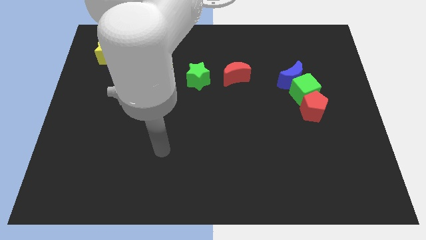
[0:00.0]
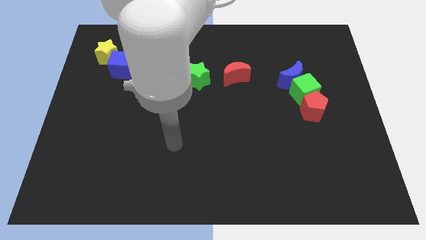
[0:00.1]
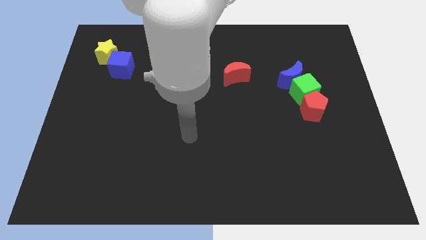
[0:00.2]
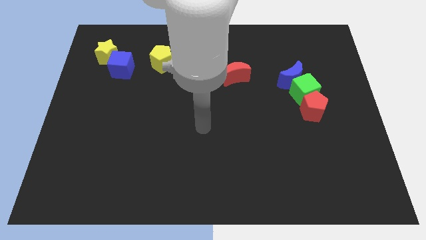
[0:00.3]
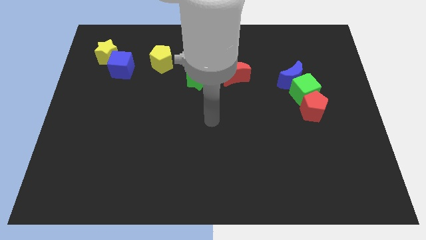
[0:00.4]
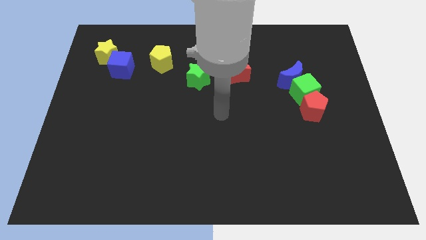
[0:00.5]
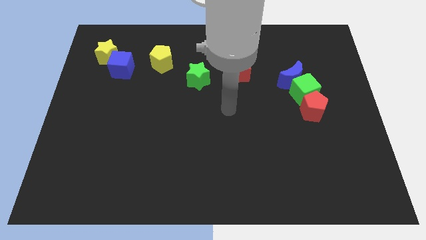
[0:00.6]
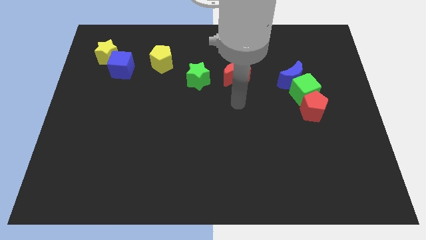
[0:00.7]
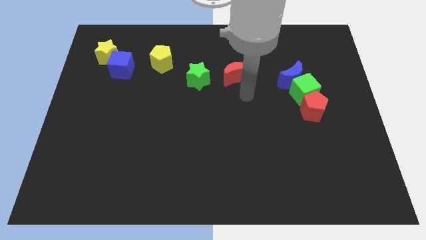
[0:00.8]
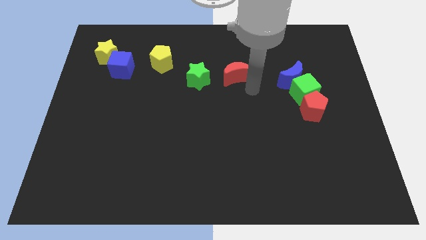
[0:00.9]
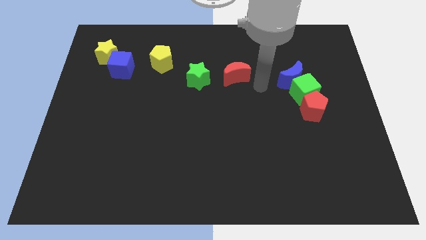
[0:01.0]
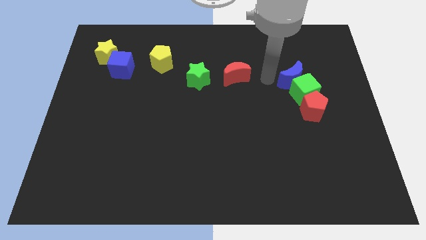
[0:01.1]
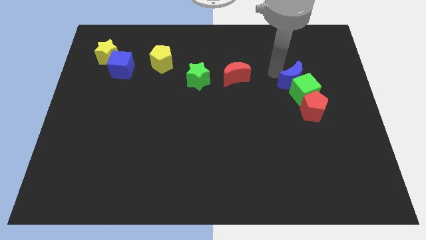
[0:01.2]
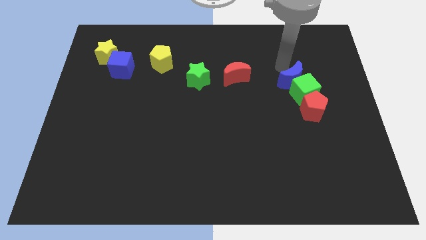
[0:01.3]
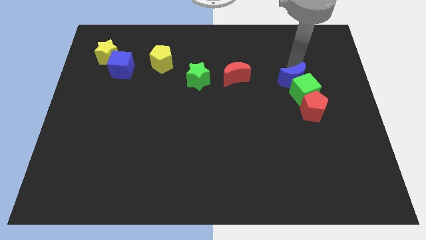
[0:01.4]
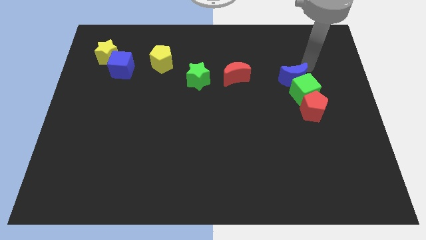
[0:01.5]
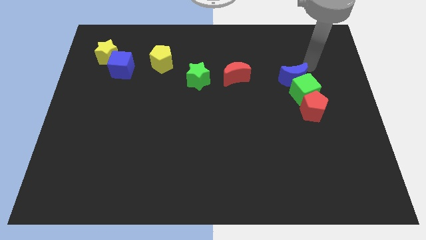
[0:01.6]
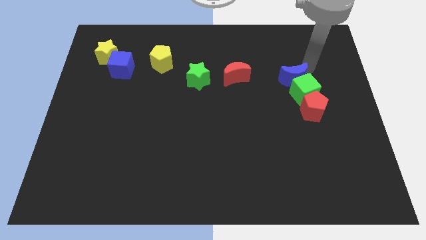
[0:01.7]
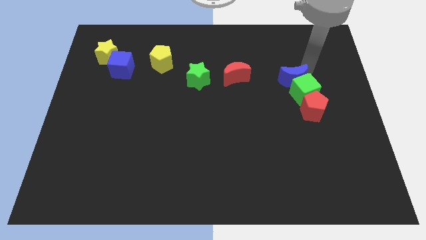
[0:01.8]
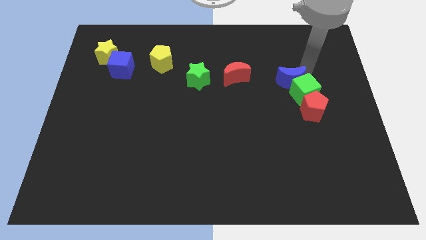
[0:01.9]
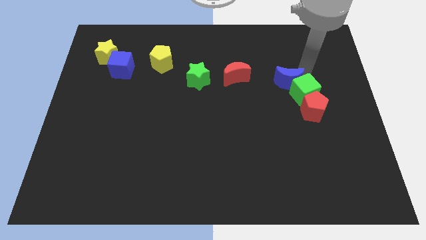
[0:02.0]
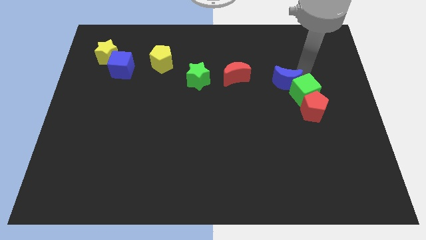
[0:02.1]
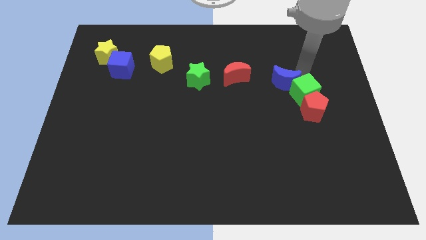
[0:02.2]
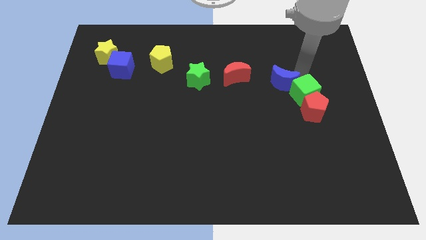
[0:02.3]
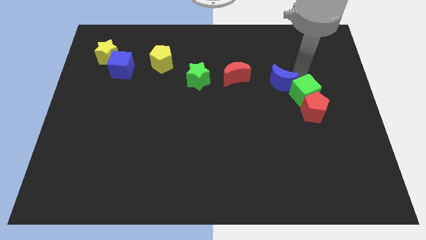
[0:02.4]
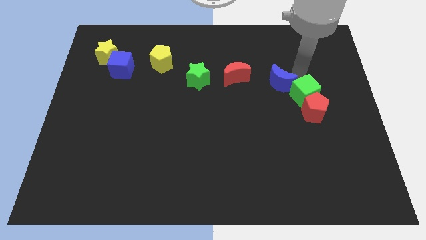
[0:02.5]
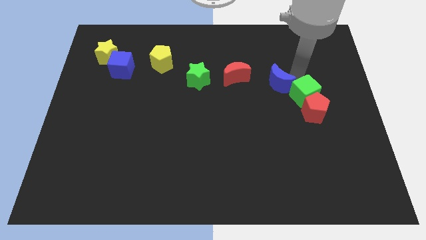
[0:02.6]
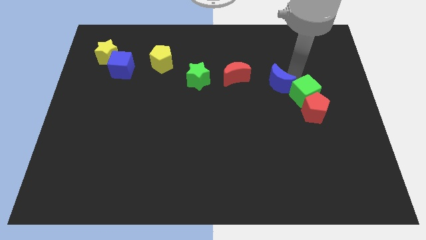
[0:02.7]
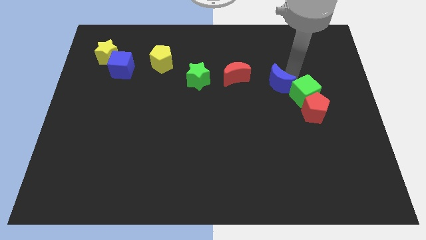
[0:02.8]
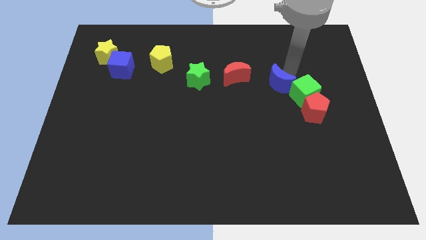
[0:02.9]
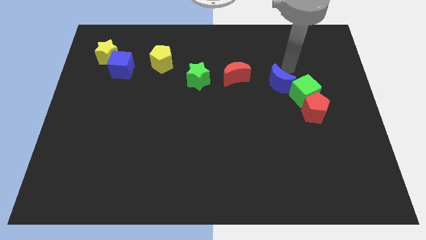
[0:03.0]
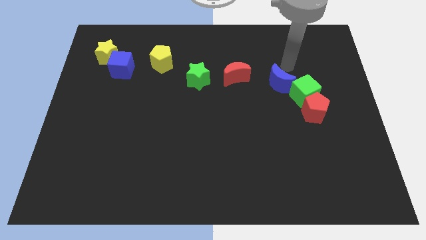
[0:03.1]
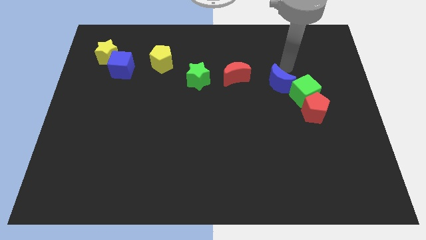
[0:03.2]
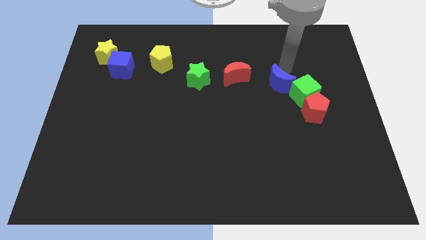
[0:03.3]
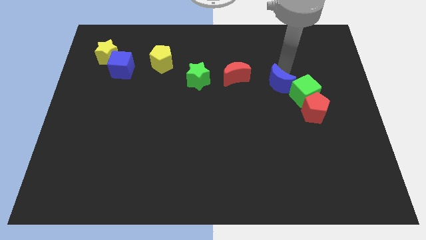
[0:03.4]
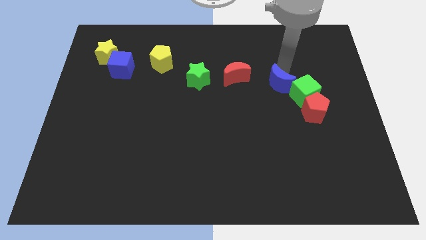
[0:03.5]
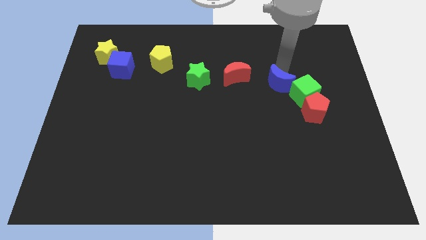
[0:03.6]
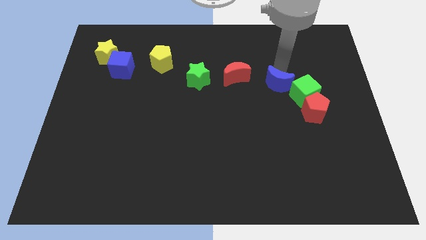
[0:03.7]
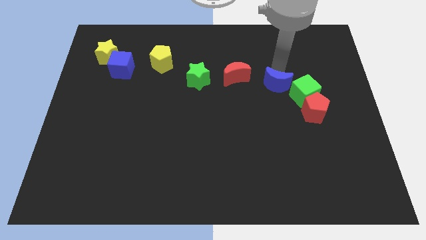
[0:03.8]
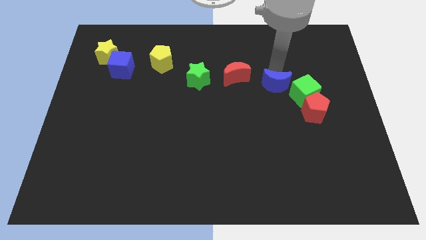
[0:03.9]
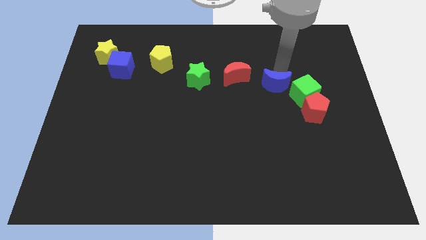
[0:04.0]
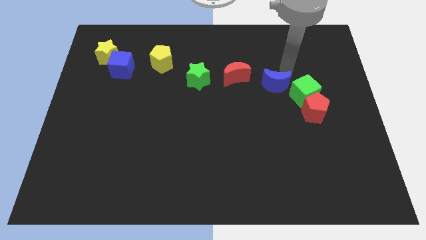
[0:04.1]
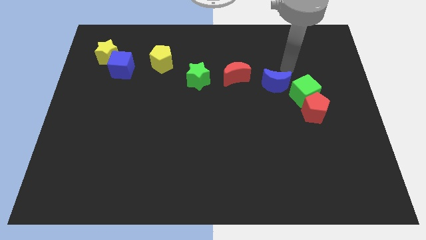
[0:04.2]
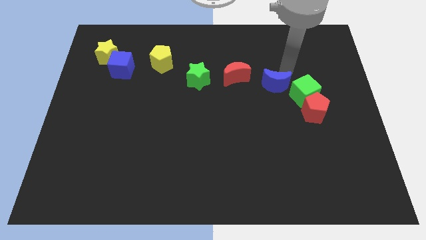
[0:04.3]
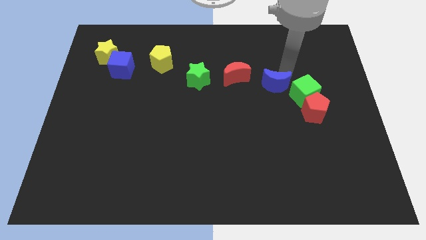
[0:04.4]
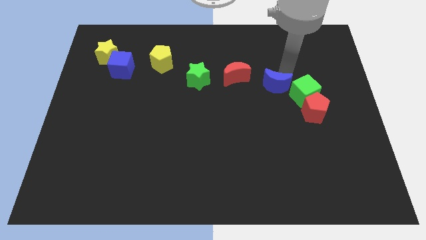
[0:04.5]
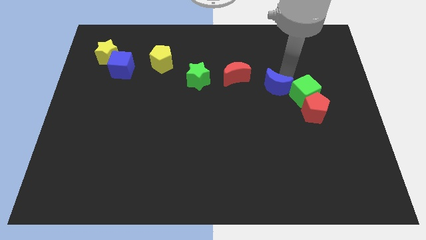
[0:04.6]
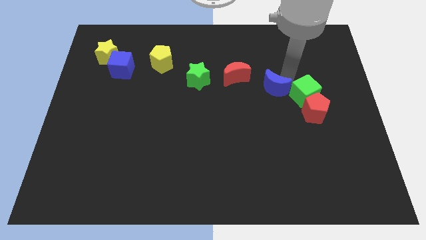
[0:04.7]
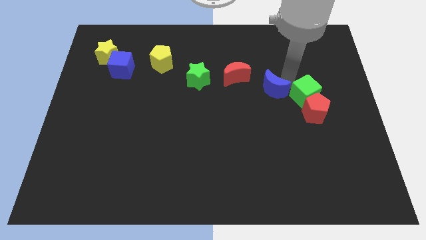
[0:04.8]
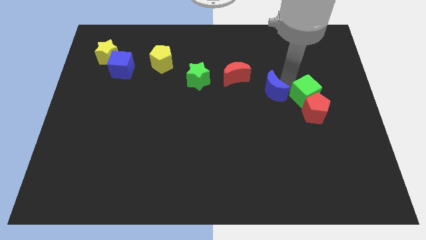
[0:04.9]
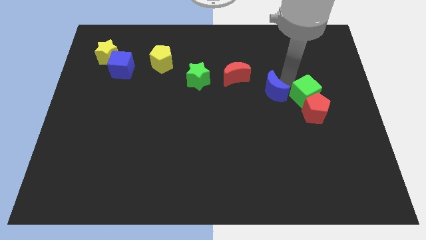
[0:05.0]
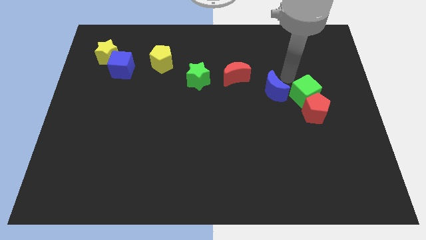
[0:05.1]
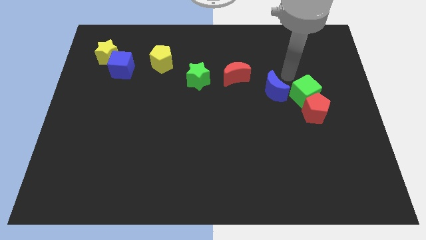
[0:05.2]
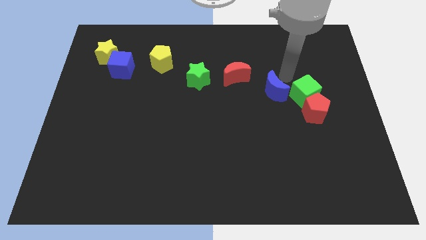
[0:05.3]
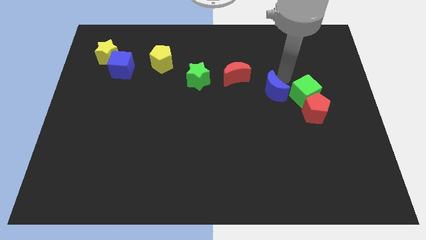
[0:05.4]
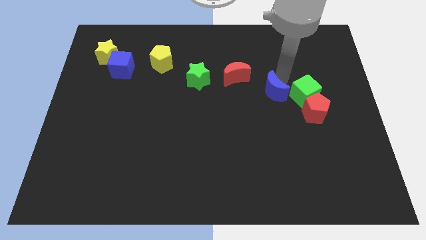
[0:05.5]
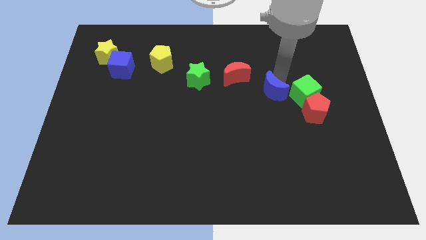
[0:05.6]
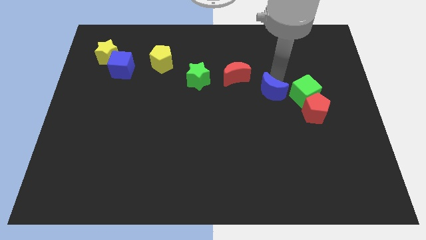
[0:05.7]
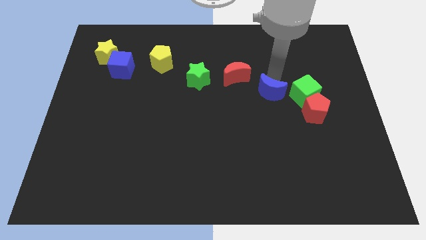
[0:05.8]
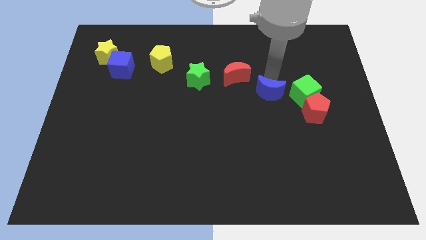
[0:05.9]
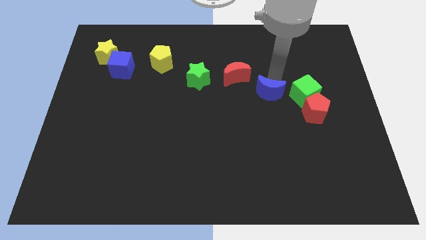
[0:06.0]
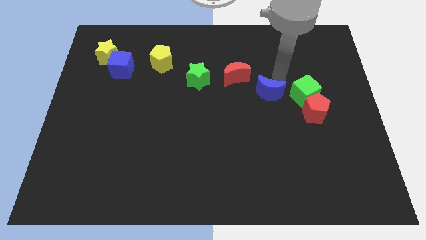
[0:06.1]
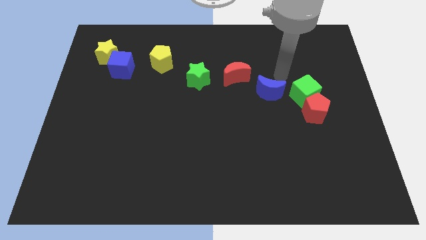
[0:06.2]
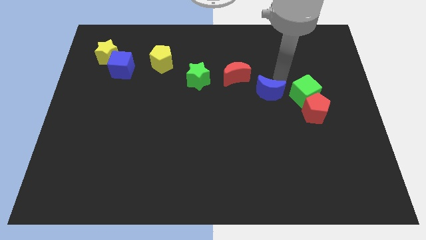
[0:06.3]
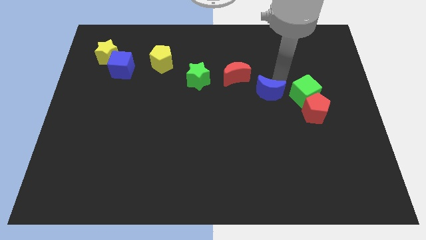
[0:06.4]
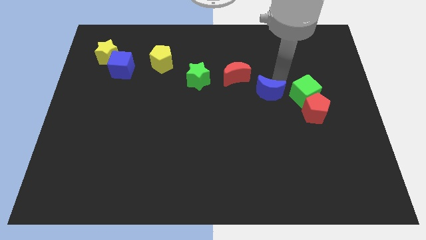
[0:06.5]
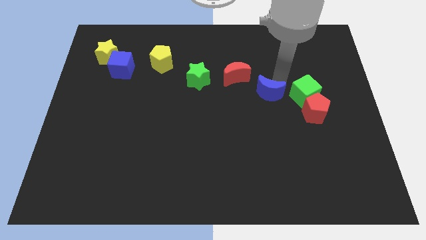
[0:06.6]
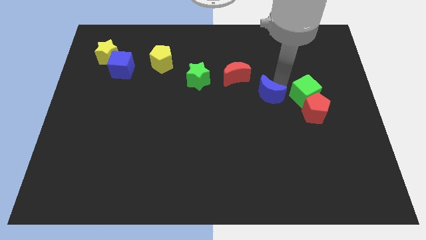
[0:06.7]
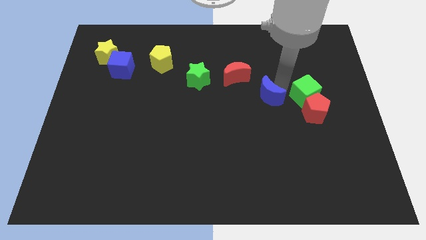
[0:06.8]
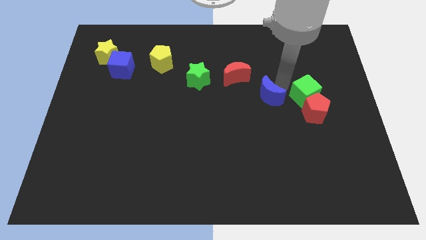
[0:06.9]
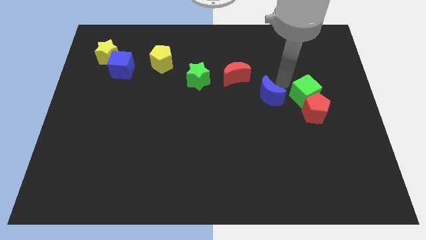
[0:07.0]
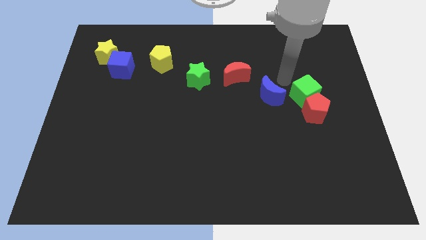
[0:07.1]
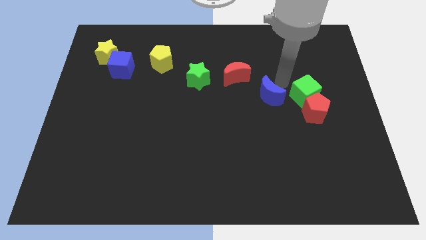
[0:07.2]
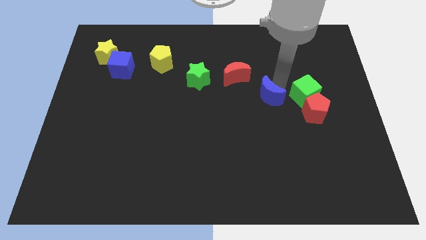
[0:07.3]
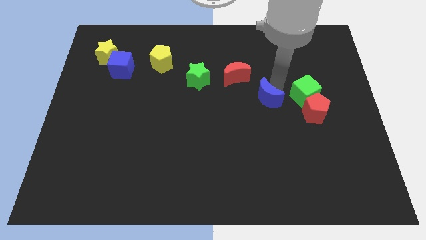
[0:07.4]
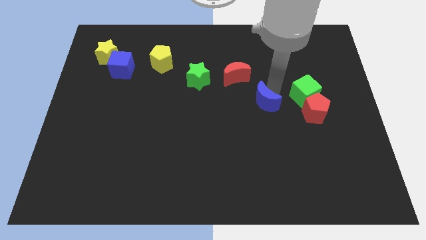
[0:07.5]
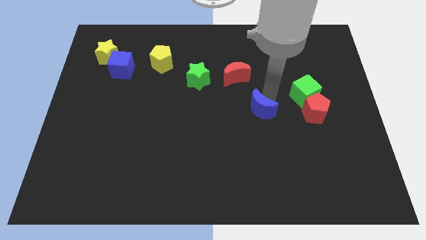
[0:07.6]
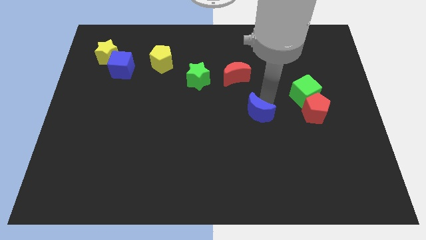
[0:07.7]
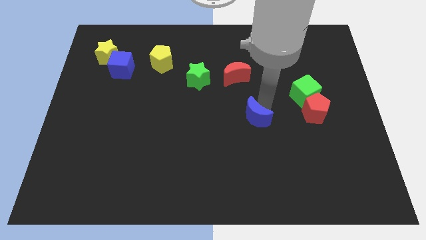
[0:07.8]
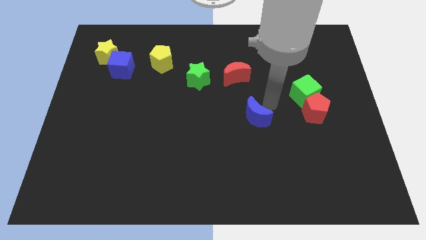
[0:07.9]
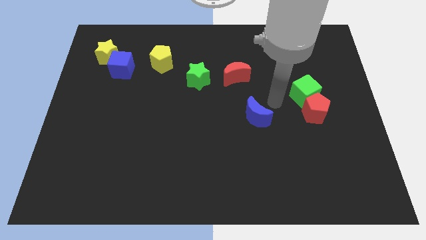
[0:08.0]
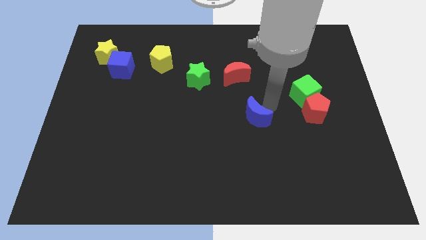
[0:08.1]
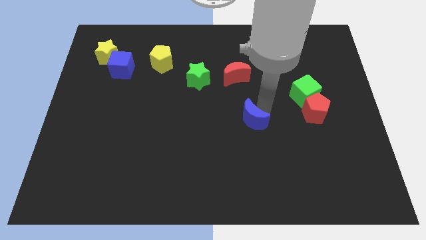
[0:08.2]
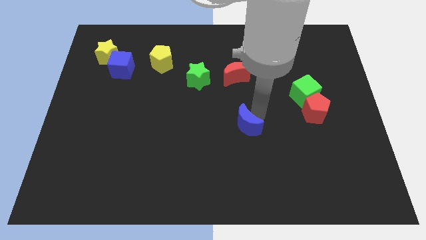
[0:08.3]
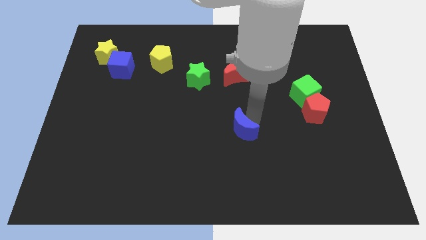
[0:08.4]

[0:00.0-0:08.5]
move the blue moon down and to the left
